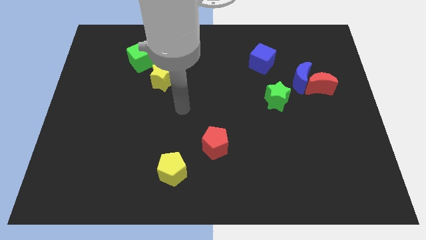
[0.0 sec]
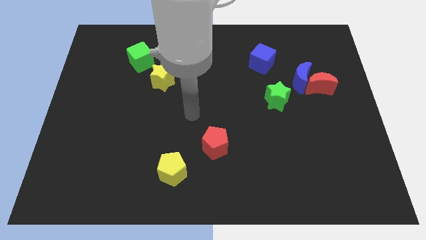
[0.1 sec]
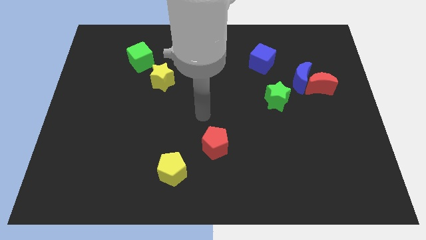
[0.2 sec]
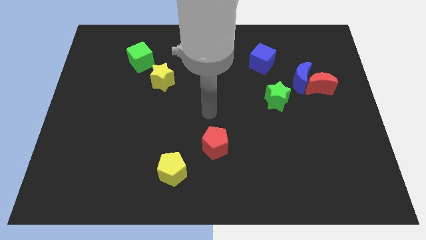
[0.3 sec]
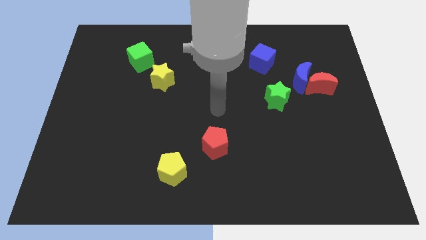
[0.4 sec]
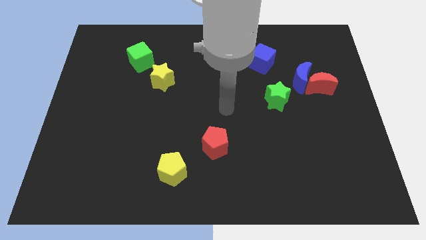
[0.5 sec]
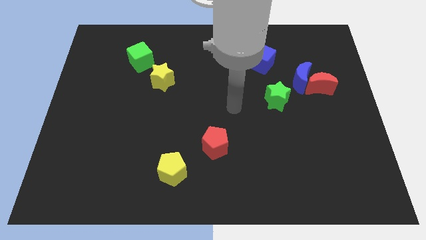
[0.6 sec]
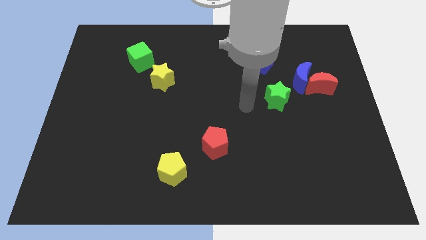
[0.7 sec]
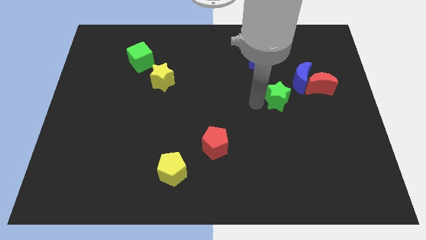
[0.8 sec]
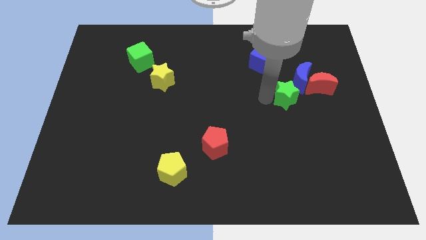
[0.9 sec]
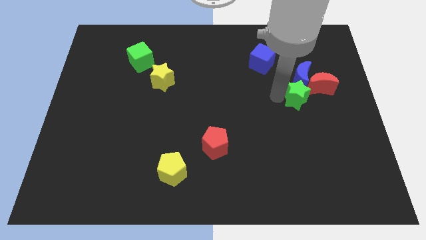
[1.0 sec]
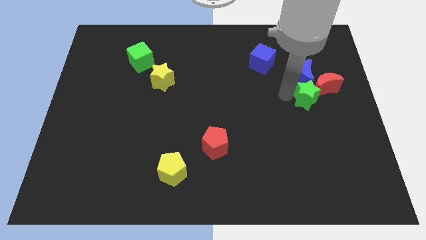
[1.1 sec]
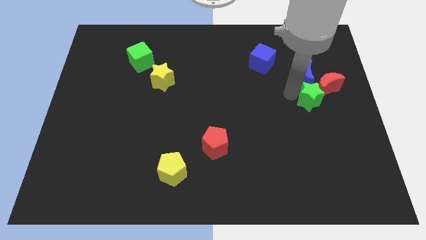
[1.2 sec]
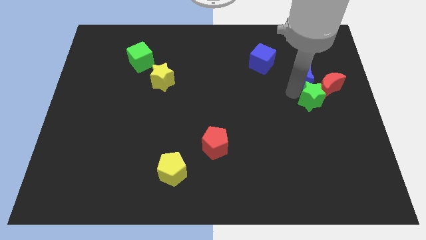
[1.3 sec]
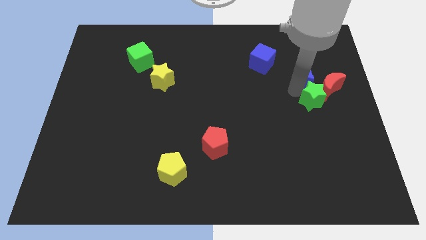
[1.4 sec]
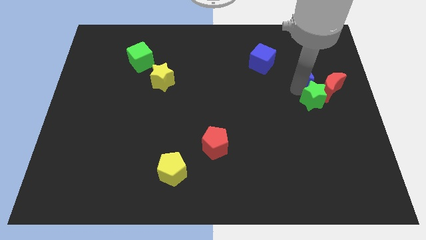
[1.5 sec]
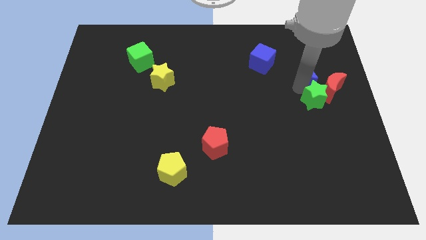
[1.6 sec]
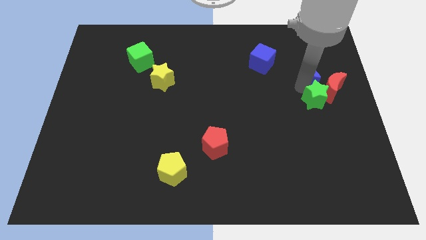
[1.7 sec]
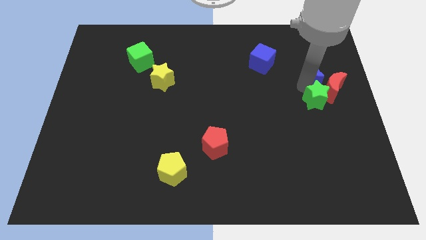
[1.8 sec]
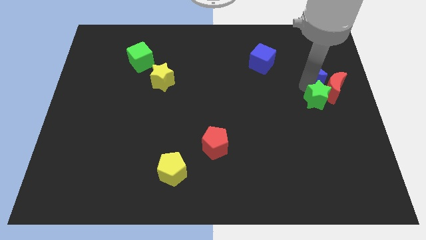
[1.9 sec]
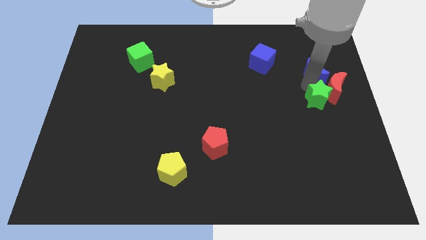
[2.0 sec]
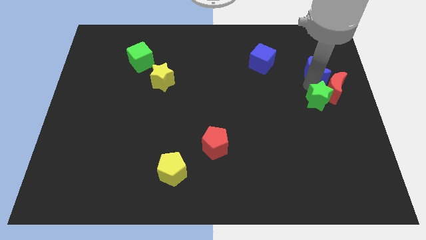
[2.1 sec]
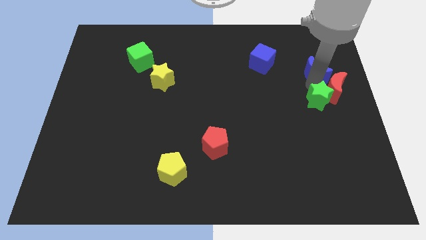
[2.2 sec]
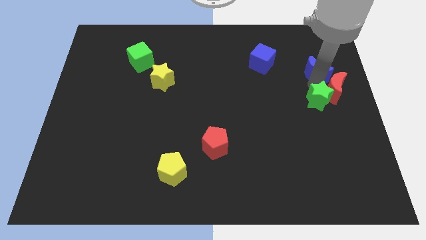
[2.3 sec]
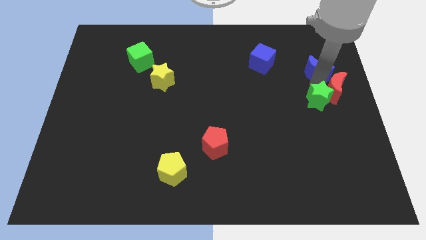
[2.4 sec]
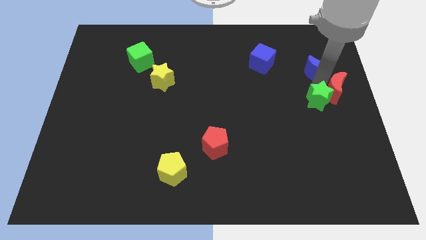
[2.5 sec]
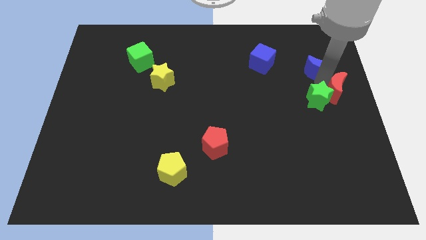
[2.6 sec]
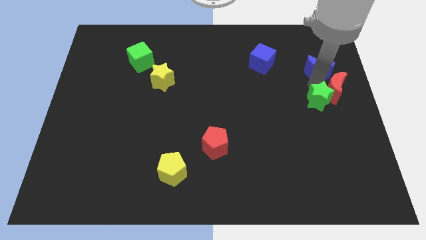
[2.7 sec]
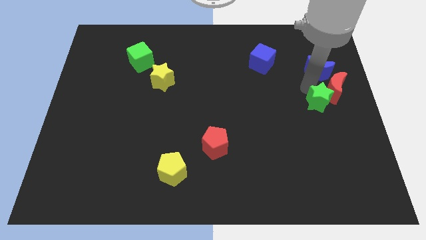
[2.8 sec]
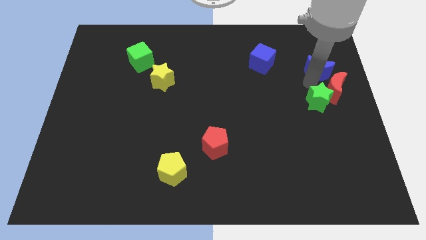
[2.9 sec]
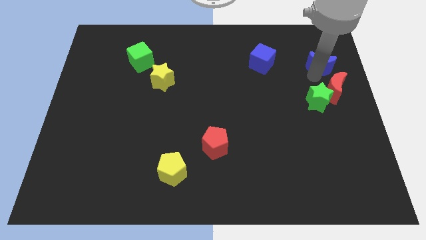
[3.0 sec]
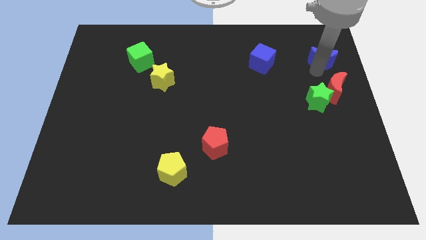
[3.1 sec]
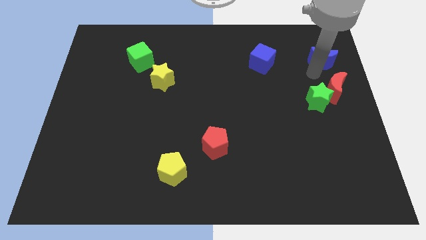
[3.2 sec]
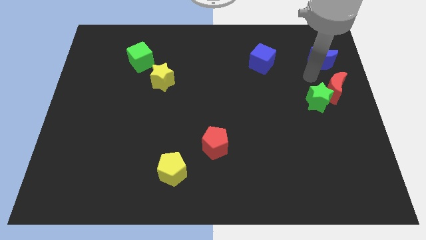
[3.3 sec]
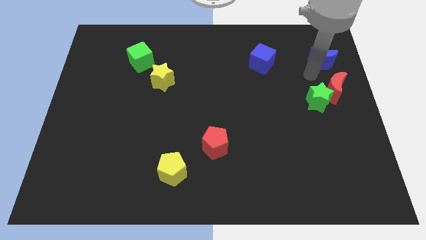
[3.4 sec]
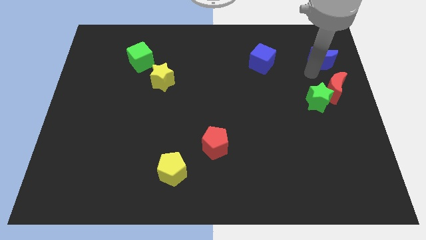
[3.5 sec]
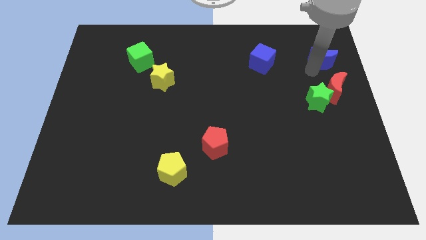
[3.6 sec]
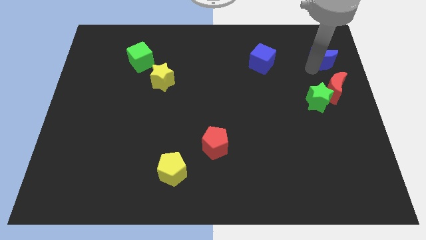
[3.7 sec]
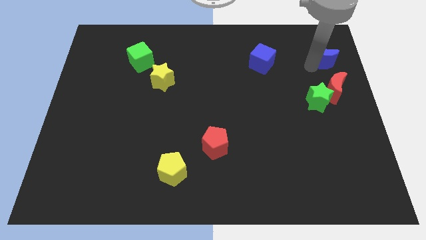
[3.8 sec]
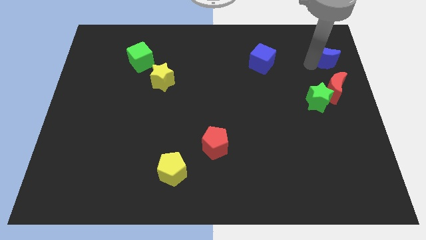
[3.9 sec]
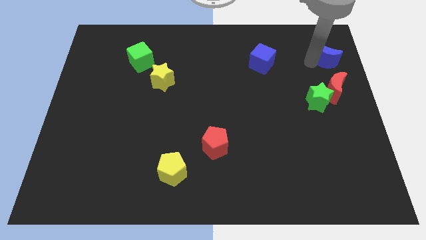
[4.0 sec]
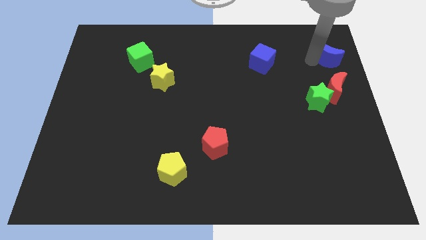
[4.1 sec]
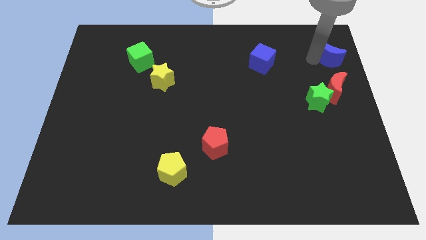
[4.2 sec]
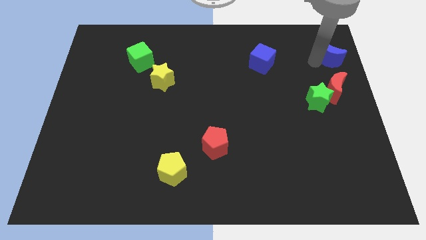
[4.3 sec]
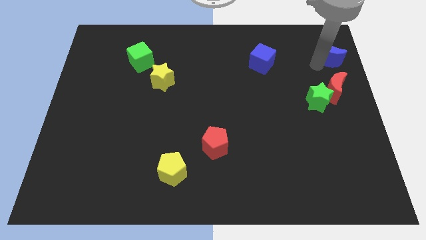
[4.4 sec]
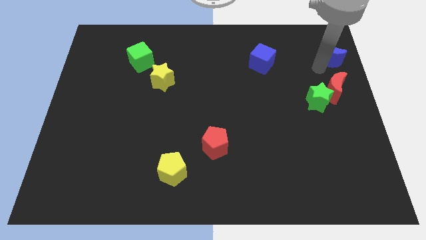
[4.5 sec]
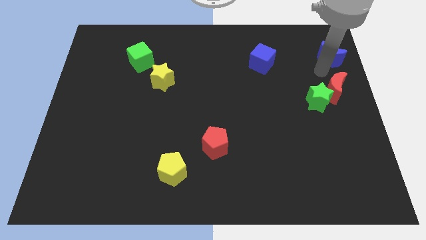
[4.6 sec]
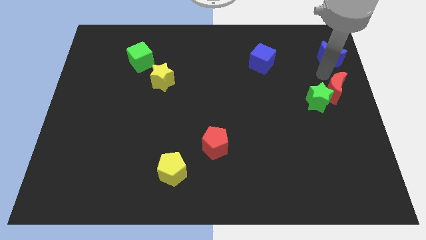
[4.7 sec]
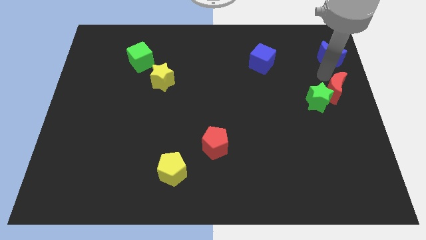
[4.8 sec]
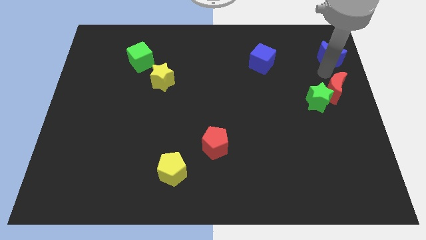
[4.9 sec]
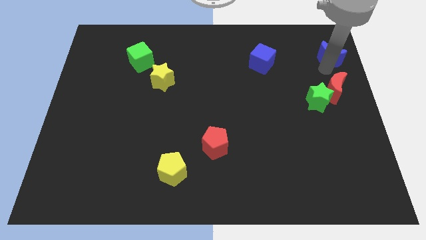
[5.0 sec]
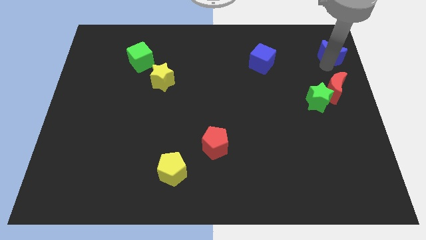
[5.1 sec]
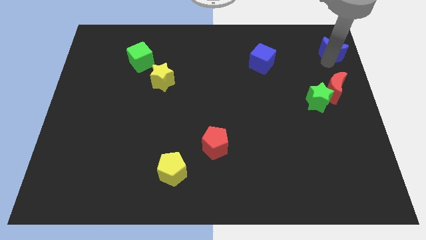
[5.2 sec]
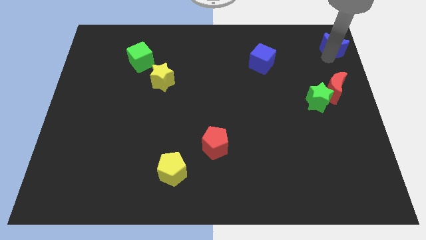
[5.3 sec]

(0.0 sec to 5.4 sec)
push the blue moon to the top right

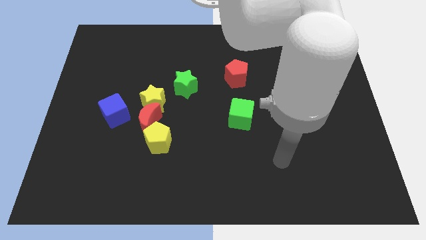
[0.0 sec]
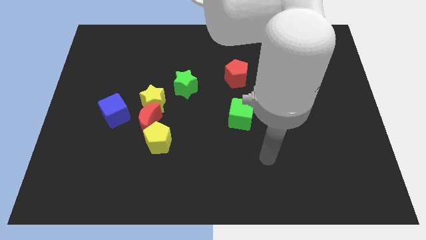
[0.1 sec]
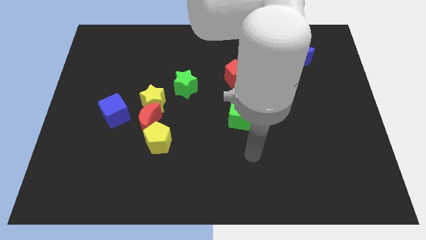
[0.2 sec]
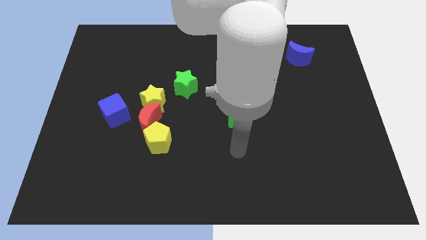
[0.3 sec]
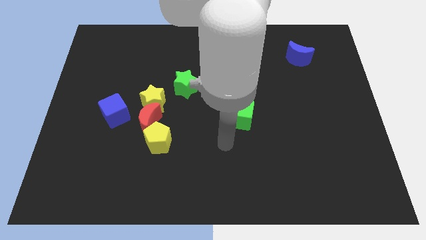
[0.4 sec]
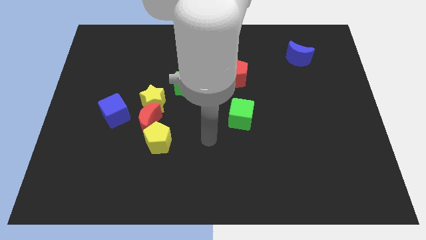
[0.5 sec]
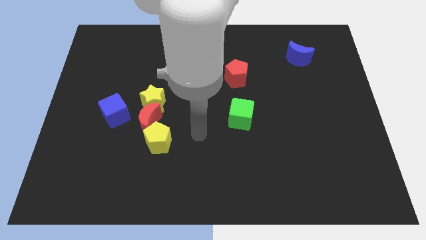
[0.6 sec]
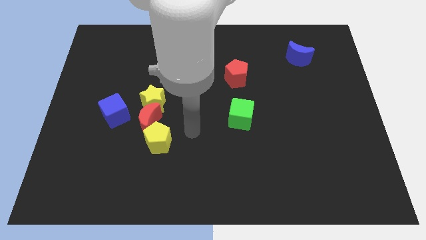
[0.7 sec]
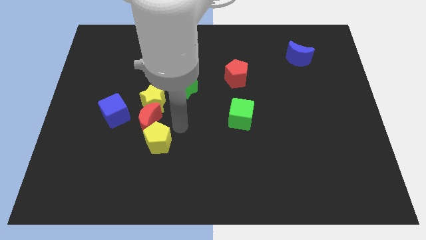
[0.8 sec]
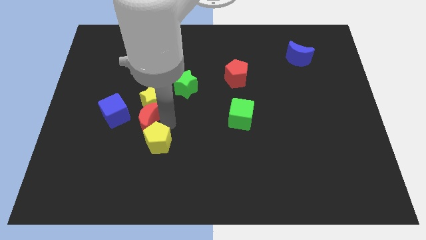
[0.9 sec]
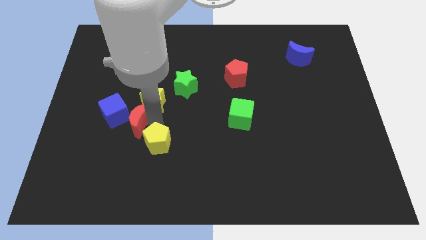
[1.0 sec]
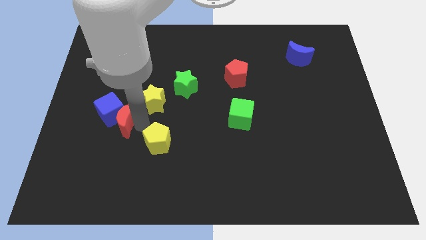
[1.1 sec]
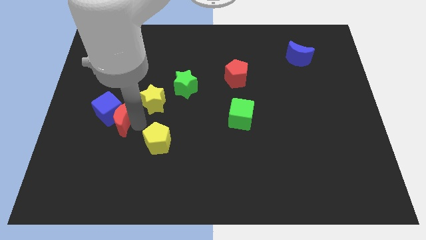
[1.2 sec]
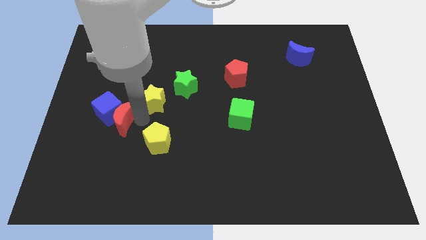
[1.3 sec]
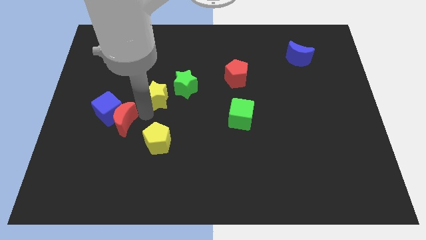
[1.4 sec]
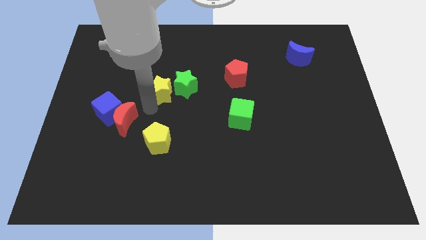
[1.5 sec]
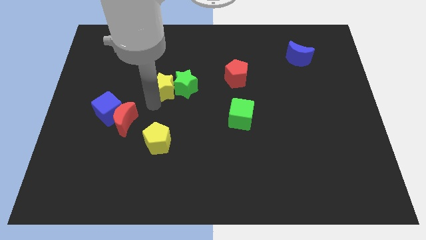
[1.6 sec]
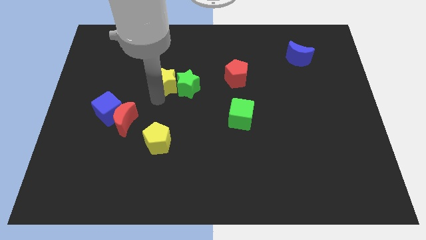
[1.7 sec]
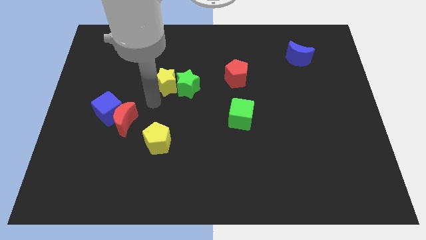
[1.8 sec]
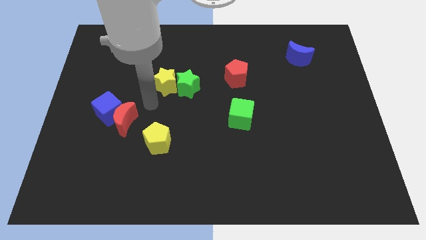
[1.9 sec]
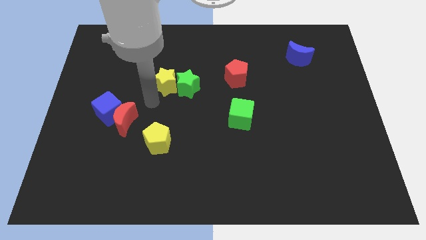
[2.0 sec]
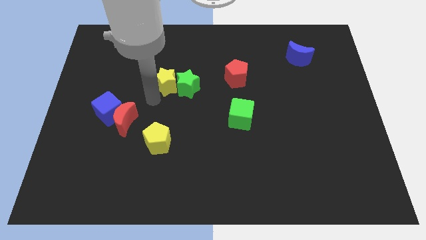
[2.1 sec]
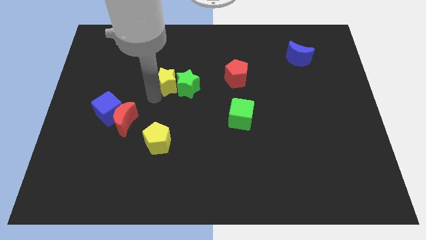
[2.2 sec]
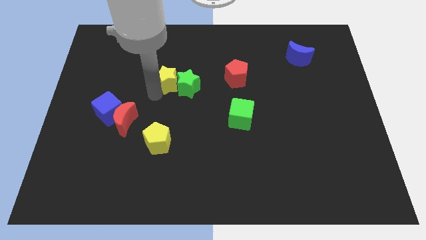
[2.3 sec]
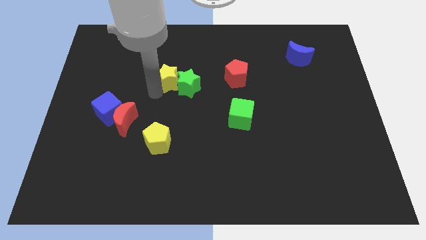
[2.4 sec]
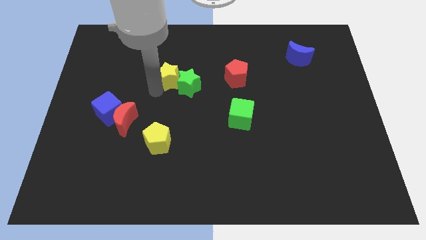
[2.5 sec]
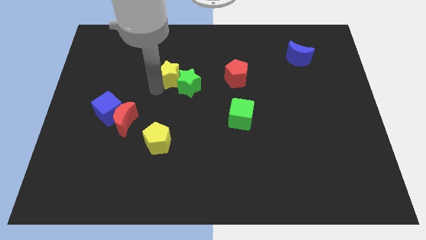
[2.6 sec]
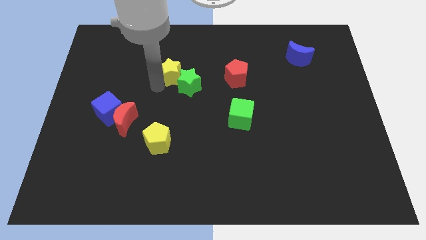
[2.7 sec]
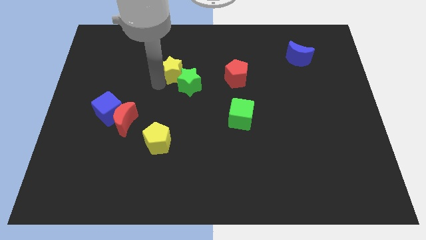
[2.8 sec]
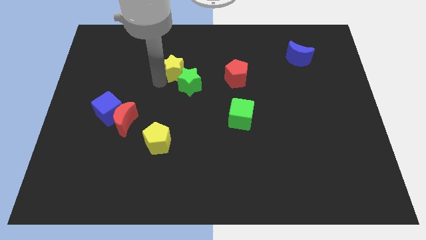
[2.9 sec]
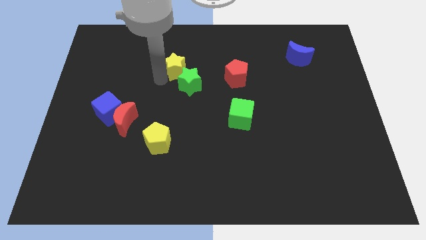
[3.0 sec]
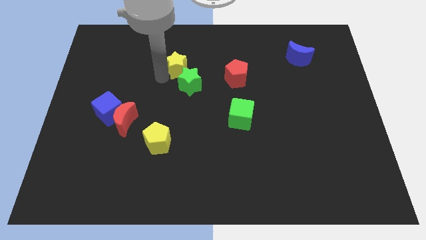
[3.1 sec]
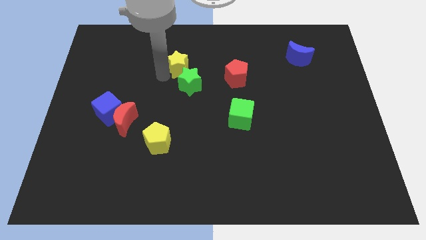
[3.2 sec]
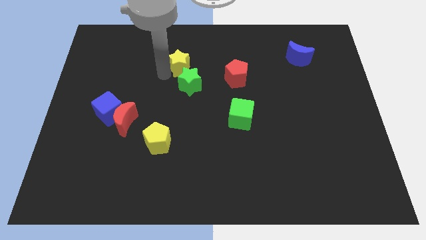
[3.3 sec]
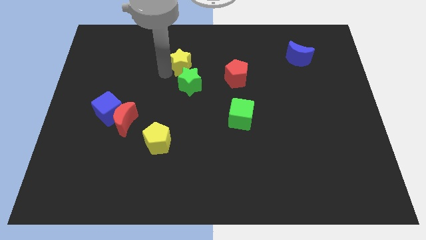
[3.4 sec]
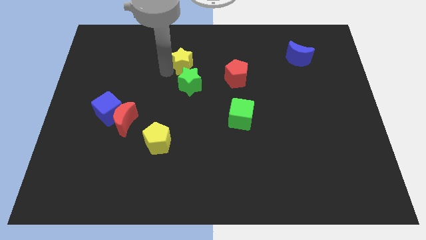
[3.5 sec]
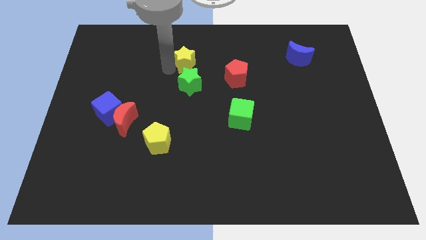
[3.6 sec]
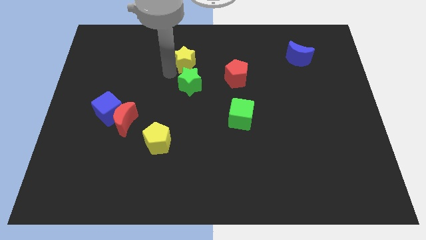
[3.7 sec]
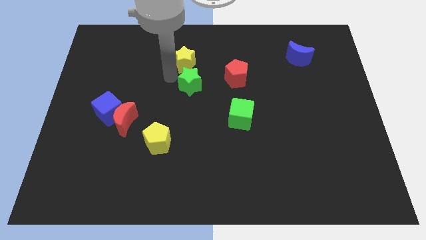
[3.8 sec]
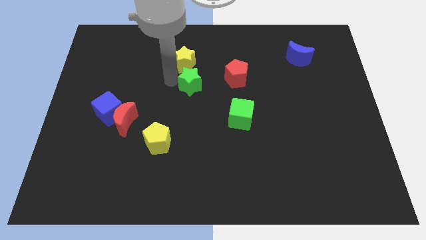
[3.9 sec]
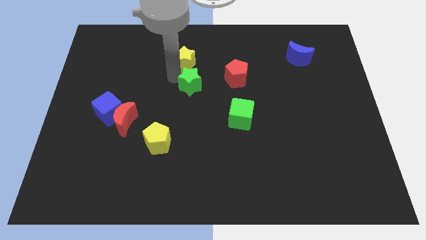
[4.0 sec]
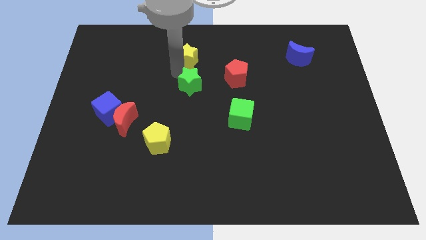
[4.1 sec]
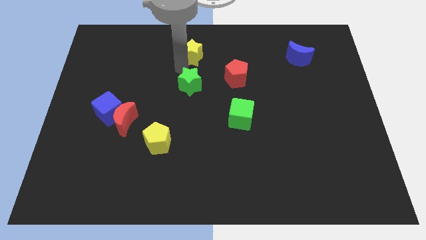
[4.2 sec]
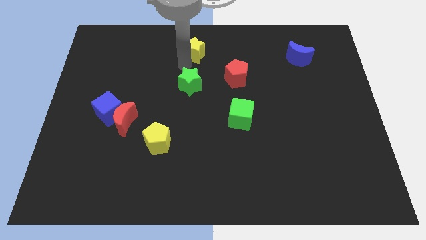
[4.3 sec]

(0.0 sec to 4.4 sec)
move the yellow star to the top side
